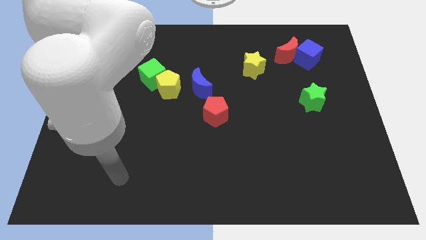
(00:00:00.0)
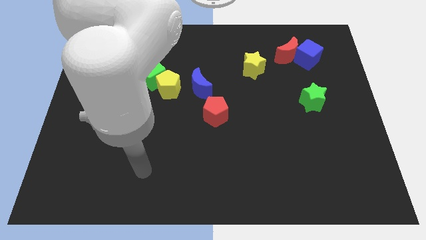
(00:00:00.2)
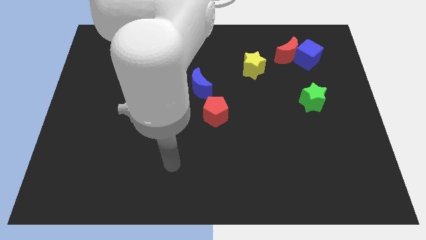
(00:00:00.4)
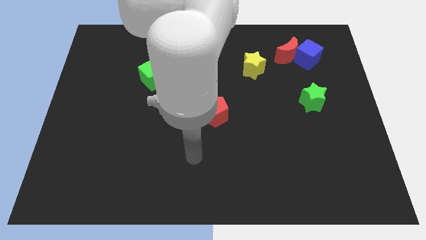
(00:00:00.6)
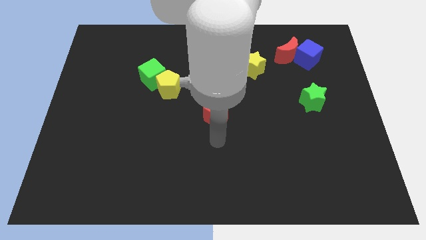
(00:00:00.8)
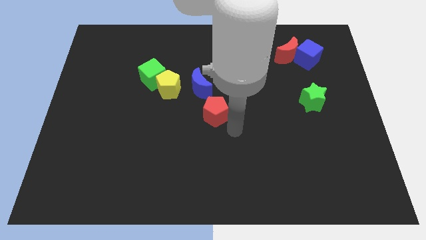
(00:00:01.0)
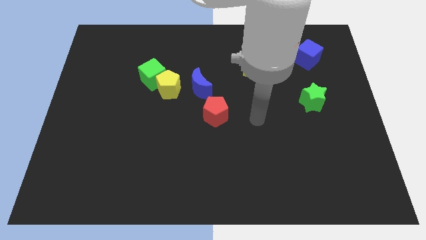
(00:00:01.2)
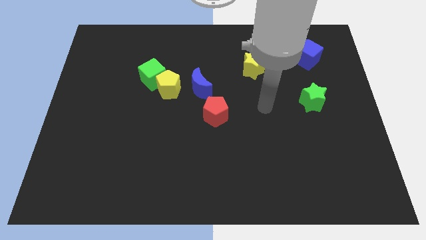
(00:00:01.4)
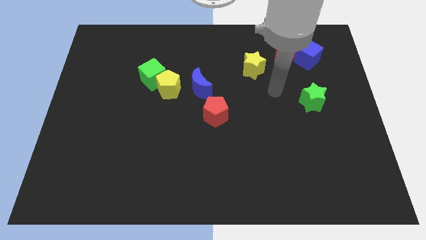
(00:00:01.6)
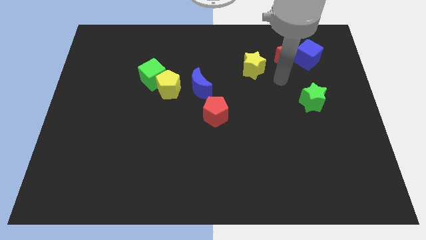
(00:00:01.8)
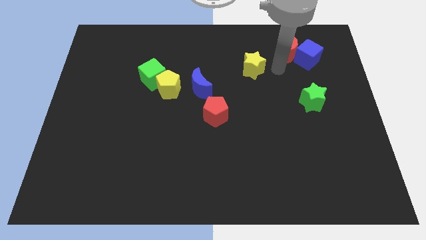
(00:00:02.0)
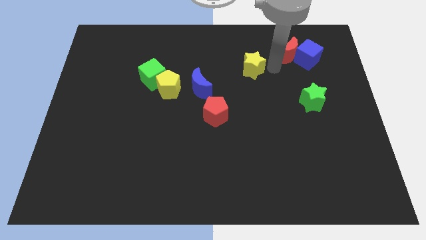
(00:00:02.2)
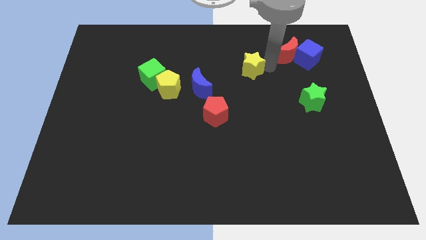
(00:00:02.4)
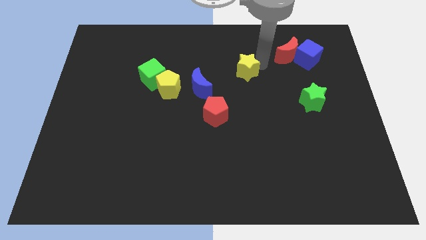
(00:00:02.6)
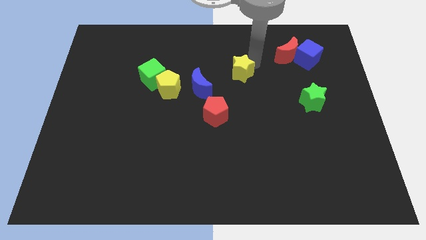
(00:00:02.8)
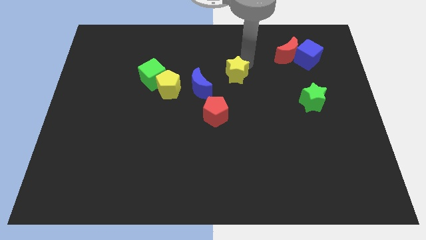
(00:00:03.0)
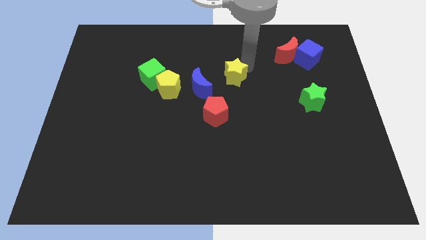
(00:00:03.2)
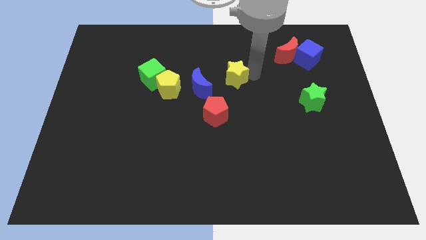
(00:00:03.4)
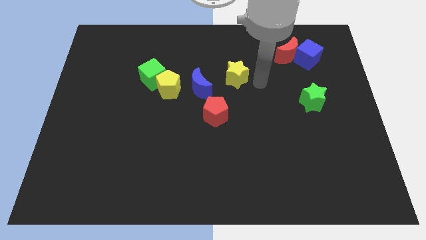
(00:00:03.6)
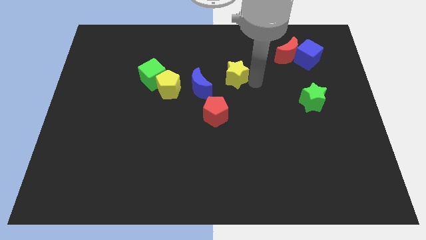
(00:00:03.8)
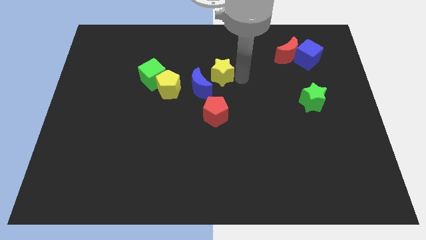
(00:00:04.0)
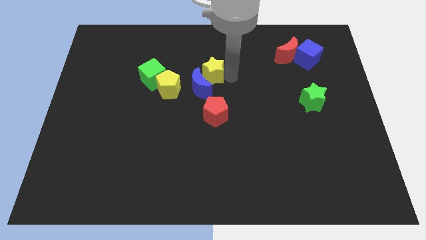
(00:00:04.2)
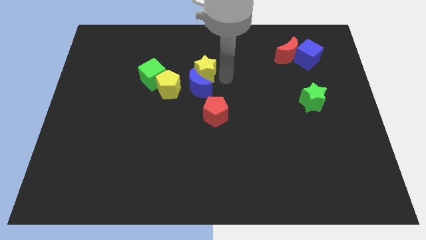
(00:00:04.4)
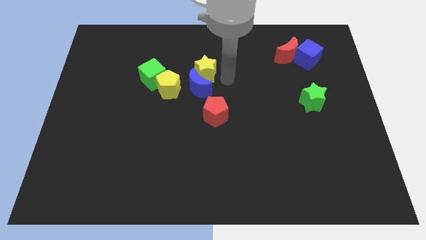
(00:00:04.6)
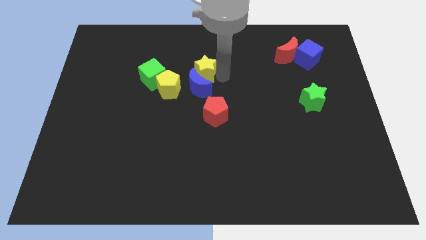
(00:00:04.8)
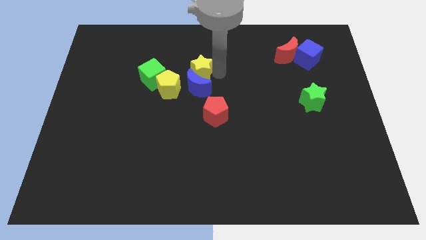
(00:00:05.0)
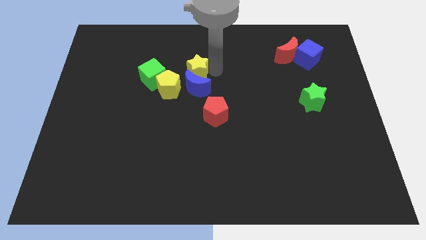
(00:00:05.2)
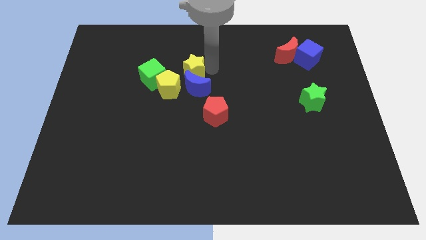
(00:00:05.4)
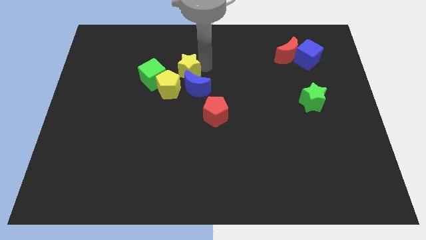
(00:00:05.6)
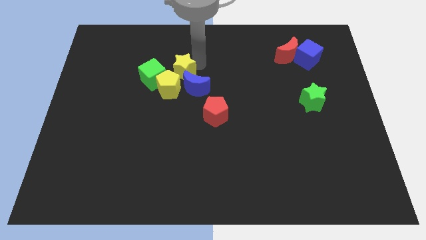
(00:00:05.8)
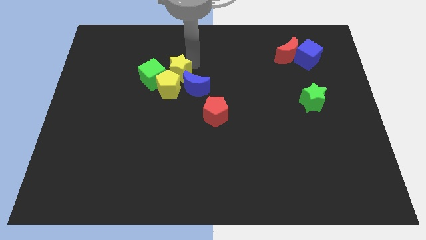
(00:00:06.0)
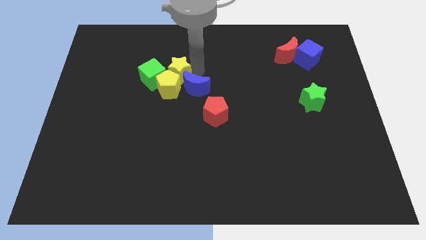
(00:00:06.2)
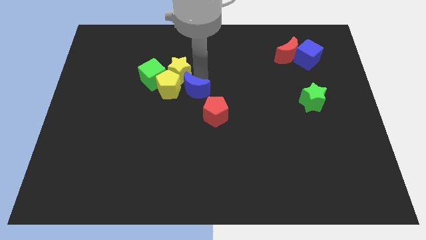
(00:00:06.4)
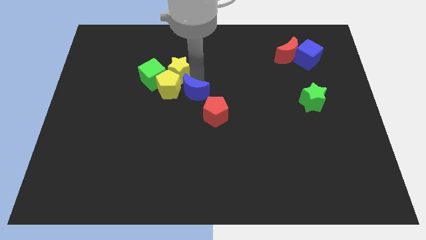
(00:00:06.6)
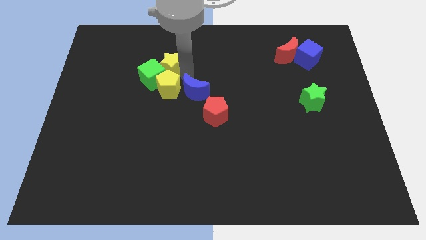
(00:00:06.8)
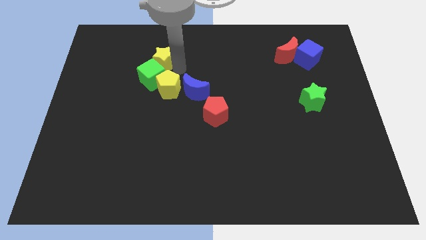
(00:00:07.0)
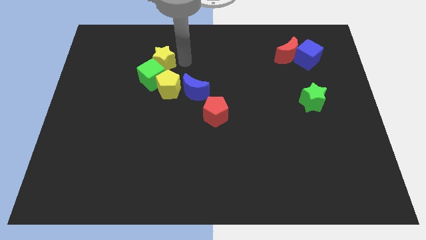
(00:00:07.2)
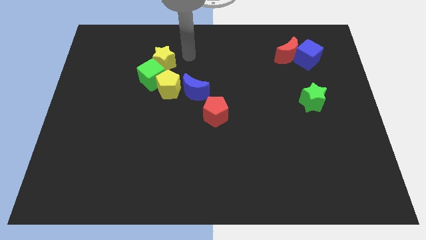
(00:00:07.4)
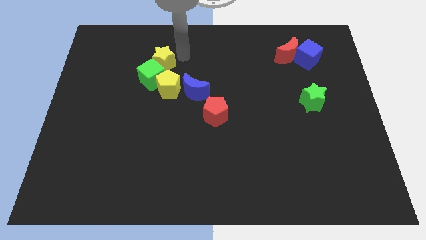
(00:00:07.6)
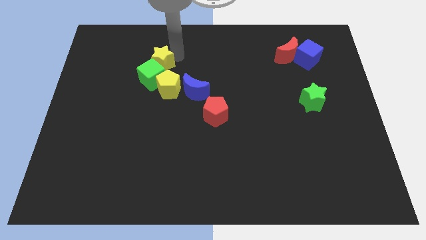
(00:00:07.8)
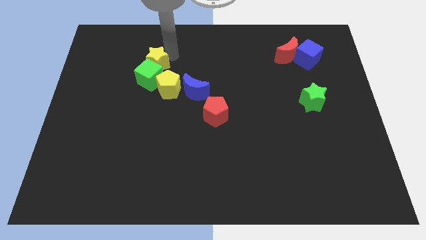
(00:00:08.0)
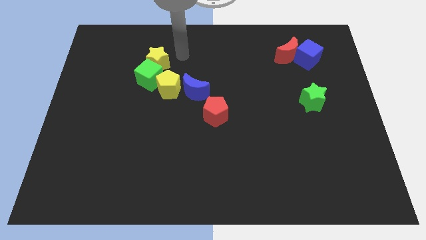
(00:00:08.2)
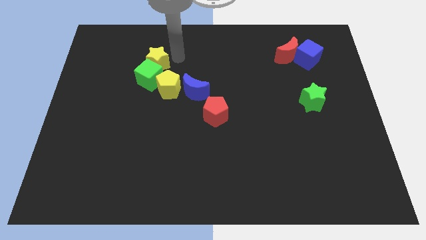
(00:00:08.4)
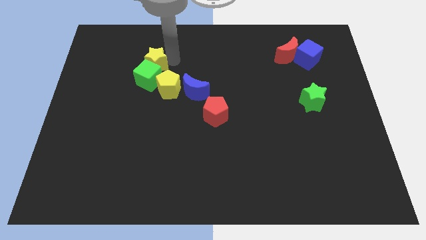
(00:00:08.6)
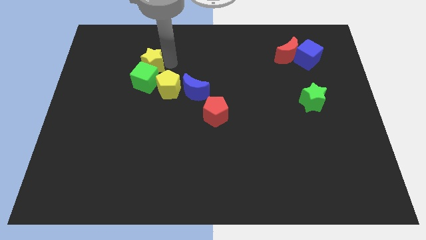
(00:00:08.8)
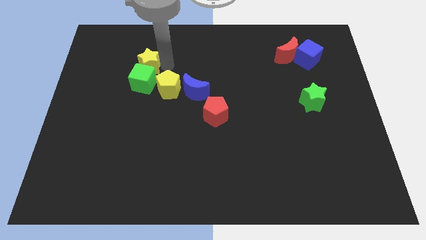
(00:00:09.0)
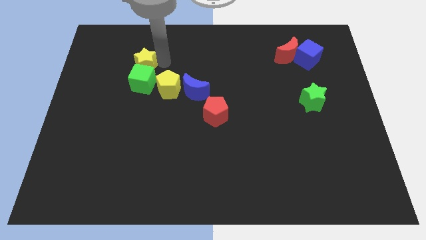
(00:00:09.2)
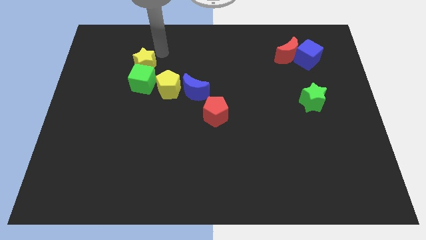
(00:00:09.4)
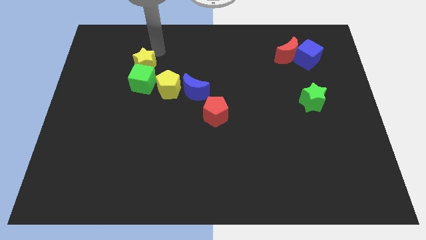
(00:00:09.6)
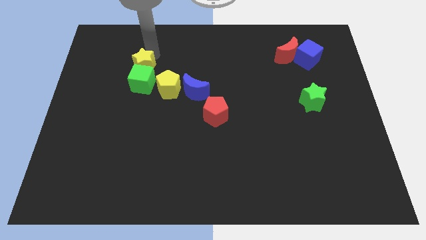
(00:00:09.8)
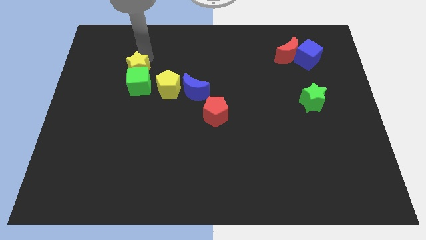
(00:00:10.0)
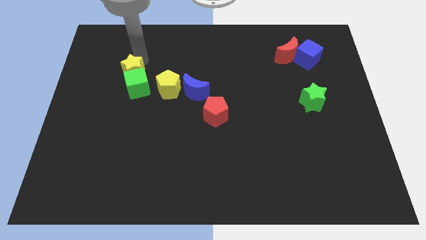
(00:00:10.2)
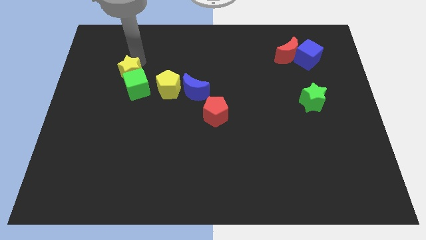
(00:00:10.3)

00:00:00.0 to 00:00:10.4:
push the yellow star left of the yellow pentagon

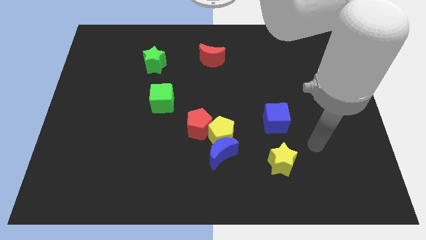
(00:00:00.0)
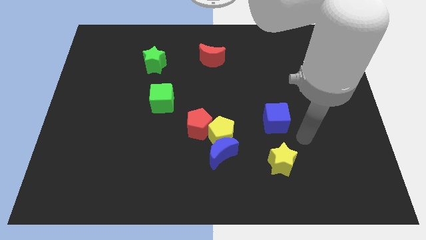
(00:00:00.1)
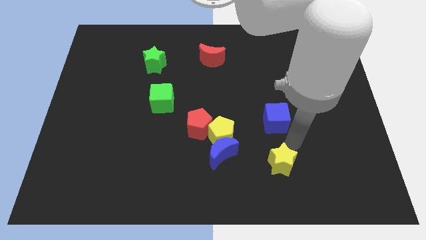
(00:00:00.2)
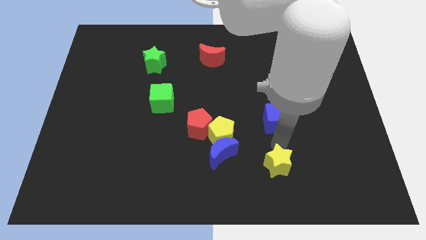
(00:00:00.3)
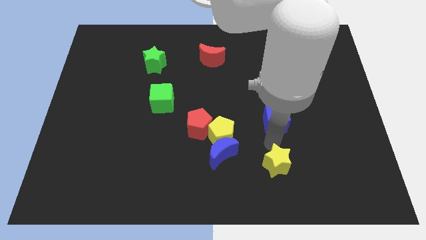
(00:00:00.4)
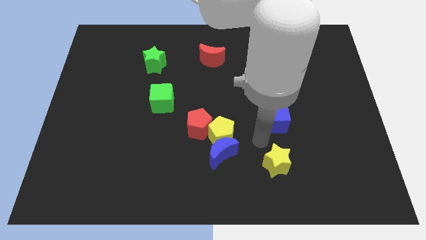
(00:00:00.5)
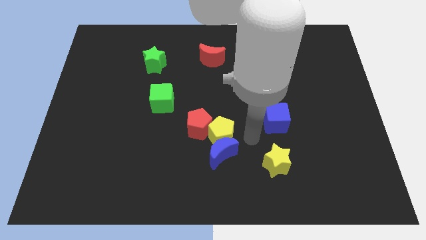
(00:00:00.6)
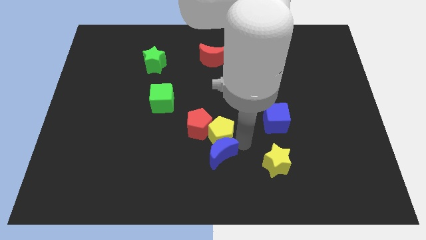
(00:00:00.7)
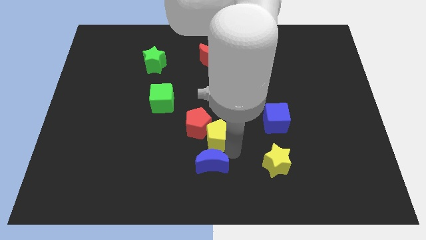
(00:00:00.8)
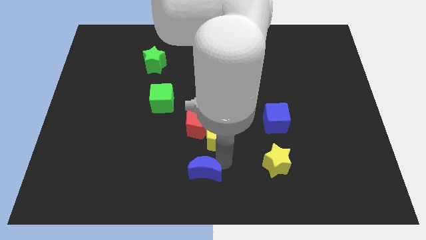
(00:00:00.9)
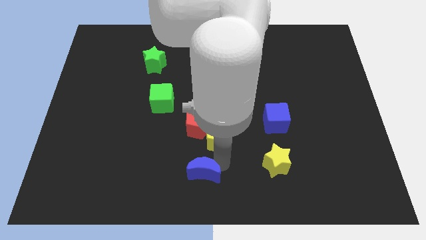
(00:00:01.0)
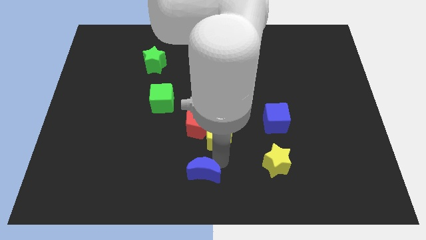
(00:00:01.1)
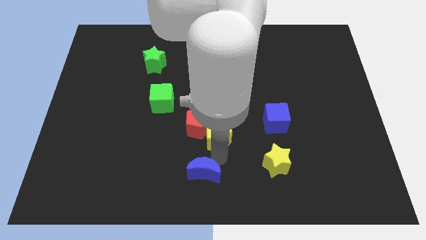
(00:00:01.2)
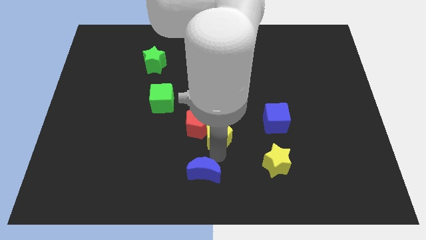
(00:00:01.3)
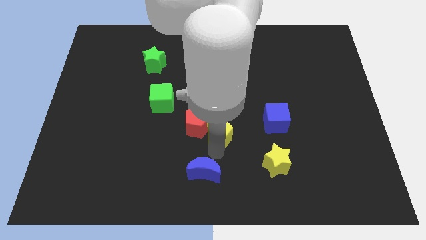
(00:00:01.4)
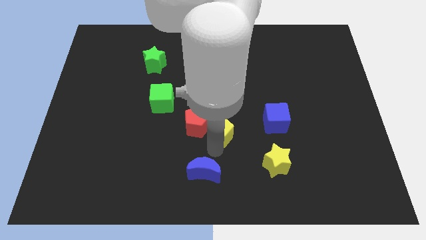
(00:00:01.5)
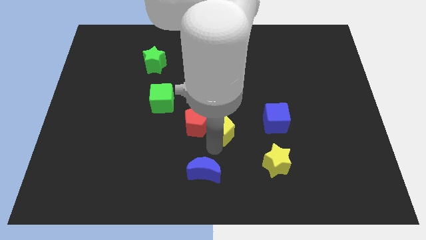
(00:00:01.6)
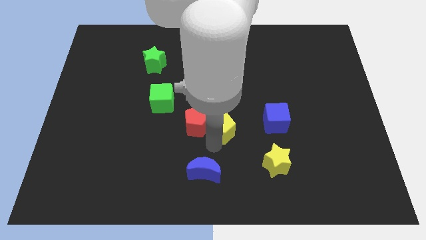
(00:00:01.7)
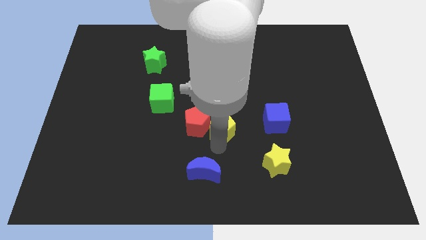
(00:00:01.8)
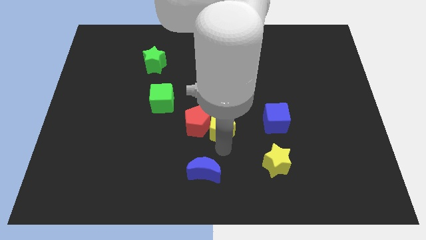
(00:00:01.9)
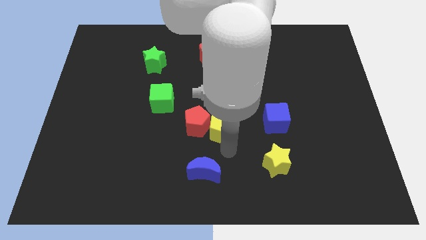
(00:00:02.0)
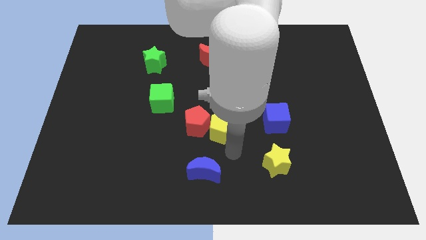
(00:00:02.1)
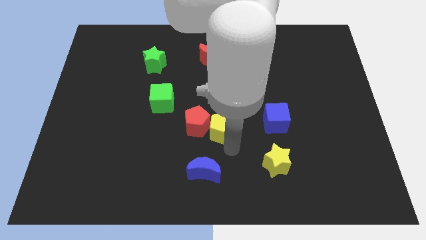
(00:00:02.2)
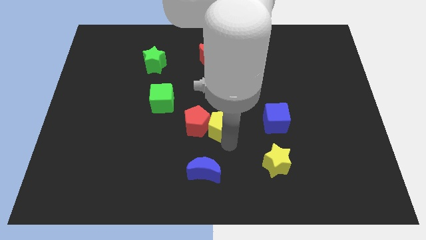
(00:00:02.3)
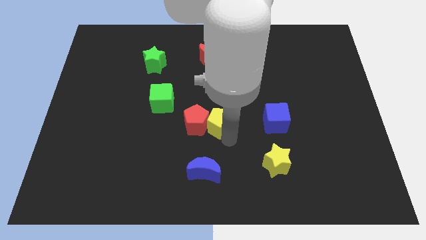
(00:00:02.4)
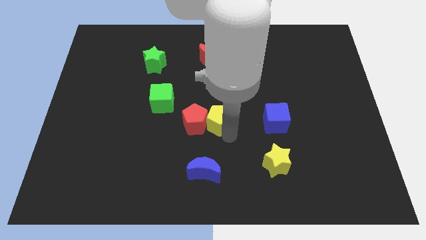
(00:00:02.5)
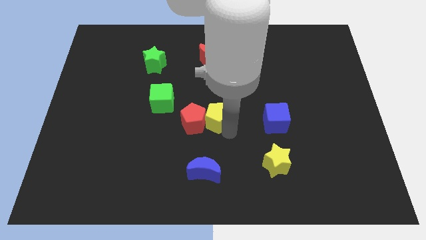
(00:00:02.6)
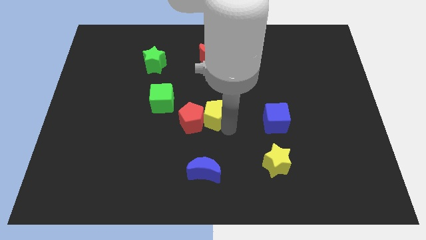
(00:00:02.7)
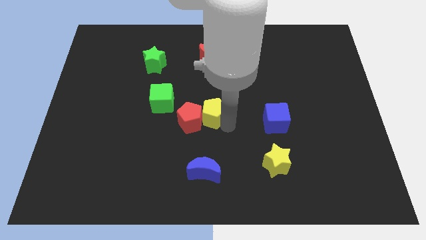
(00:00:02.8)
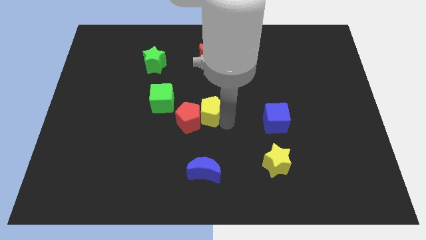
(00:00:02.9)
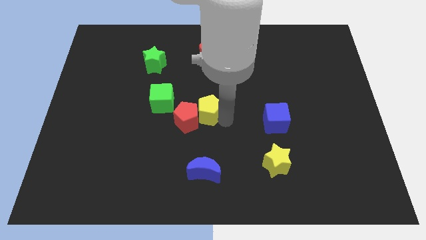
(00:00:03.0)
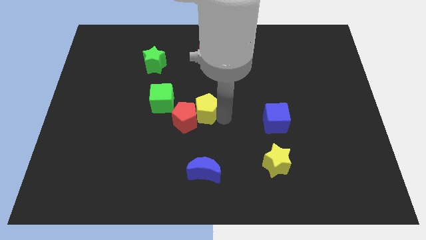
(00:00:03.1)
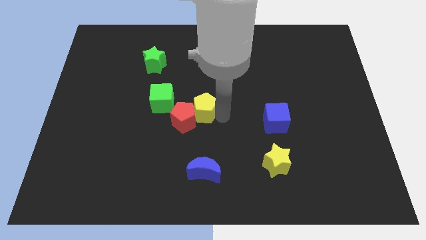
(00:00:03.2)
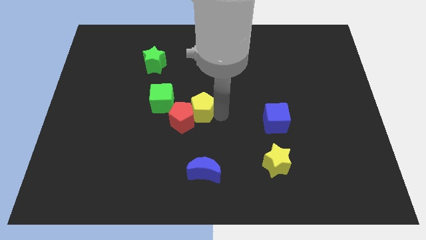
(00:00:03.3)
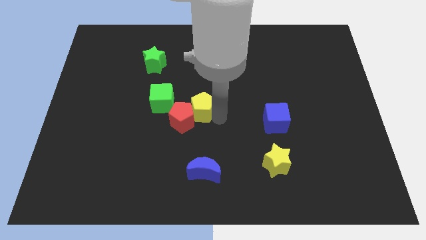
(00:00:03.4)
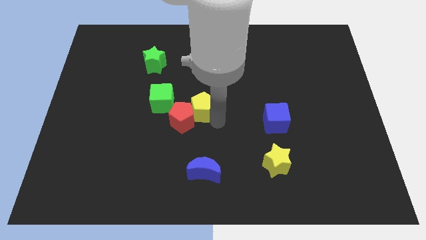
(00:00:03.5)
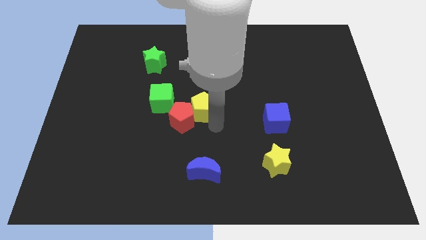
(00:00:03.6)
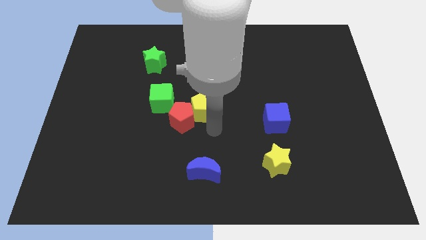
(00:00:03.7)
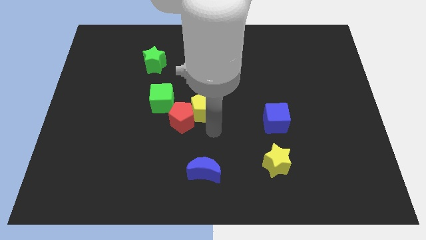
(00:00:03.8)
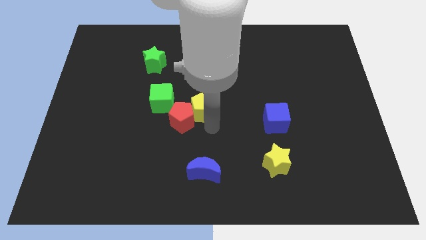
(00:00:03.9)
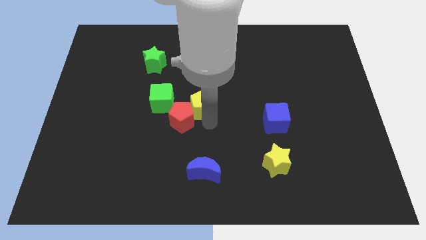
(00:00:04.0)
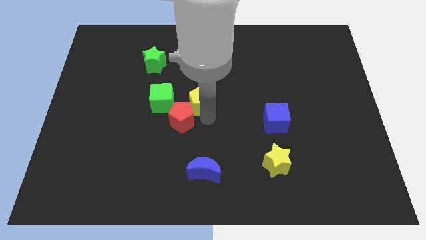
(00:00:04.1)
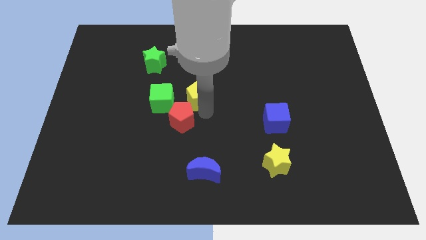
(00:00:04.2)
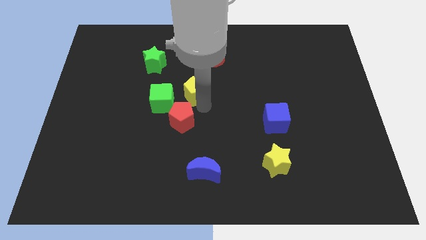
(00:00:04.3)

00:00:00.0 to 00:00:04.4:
push the yellow pentagon to the top right side of the green cube
